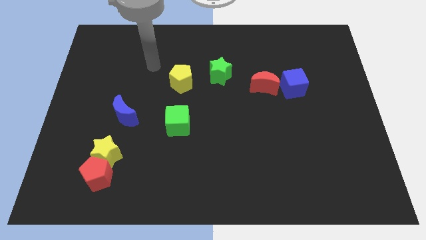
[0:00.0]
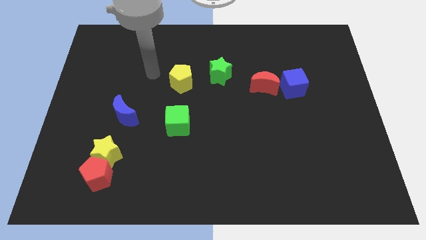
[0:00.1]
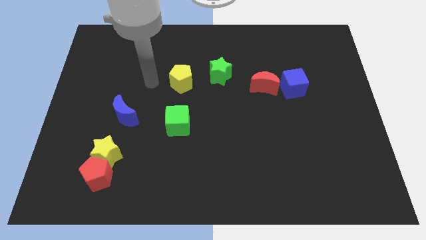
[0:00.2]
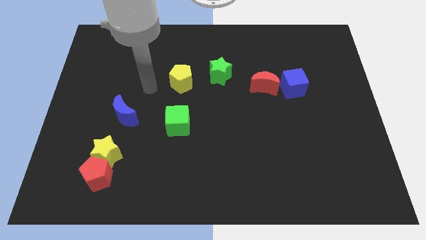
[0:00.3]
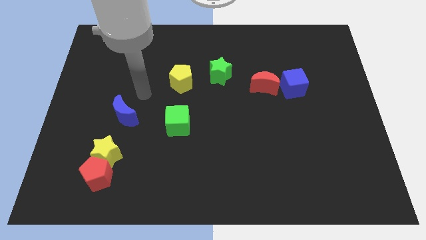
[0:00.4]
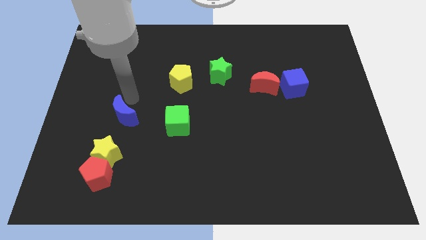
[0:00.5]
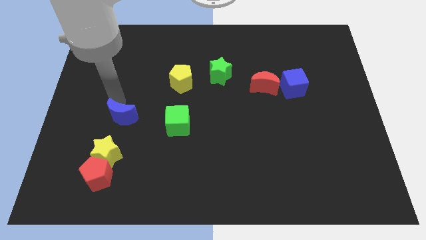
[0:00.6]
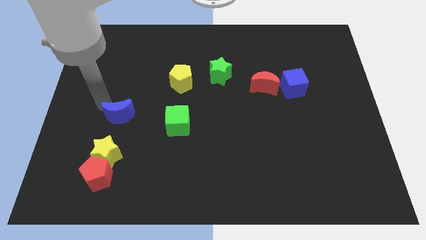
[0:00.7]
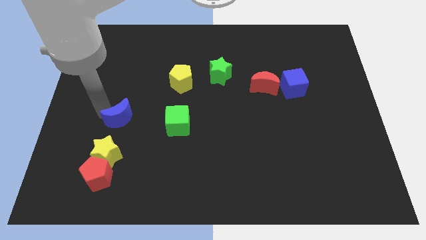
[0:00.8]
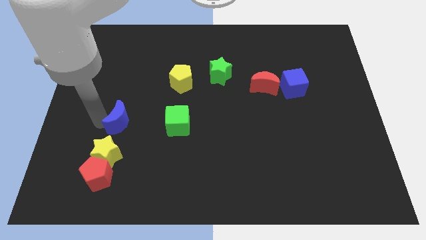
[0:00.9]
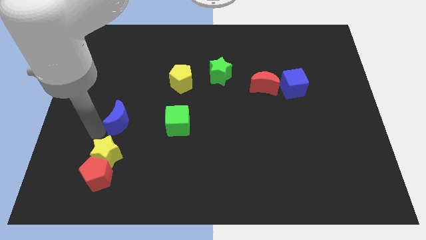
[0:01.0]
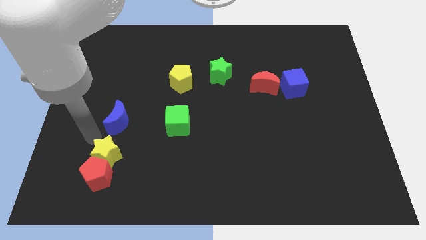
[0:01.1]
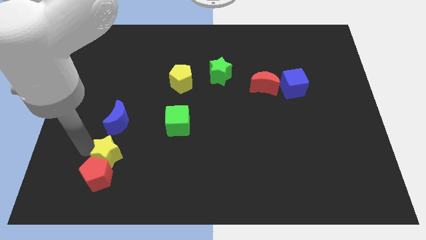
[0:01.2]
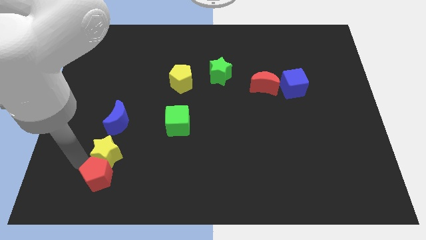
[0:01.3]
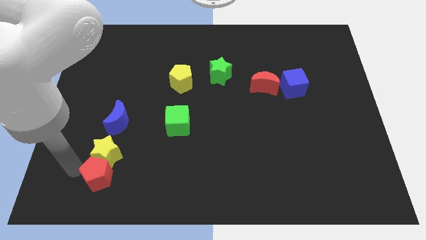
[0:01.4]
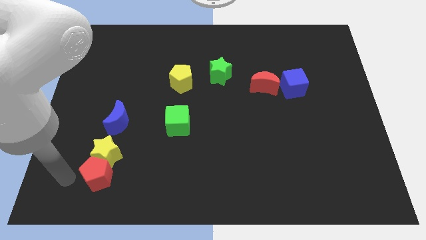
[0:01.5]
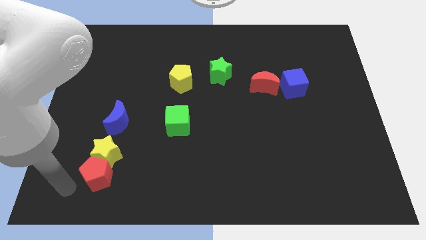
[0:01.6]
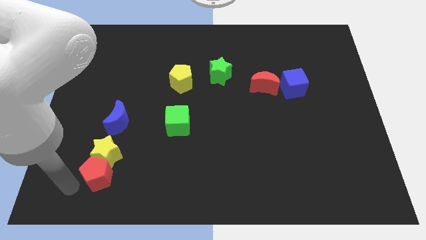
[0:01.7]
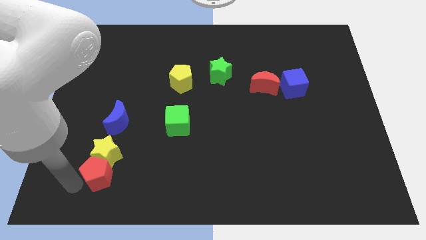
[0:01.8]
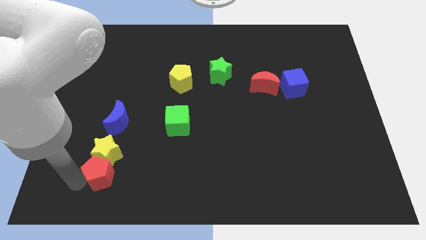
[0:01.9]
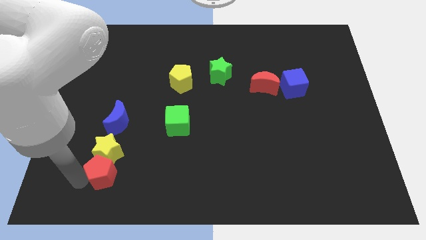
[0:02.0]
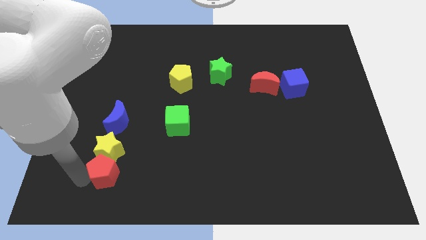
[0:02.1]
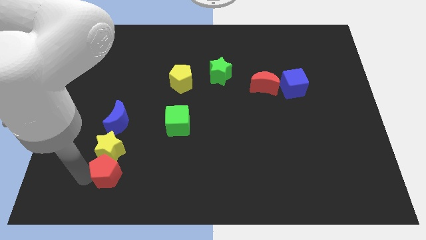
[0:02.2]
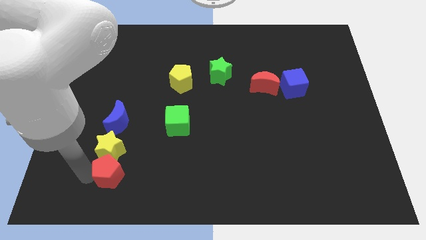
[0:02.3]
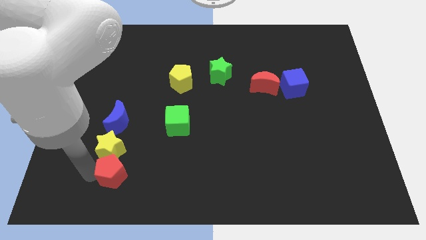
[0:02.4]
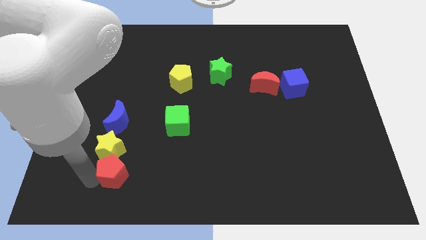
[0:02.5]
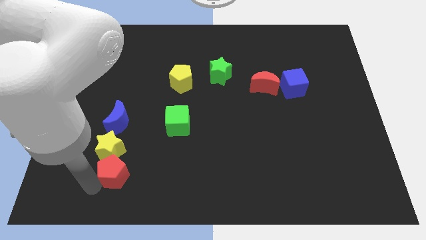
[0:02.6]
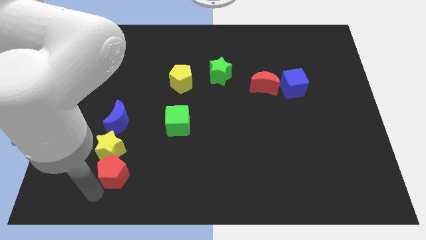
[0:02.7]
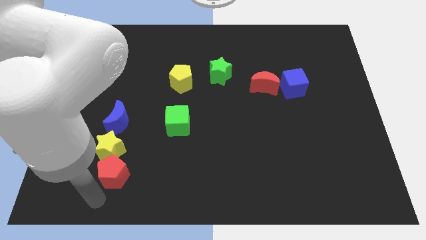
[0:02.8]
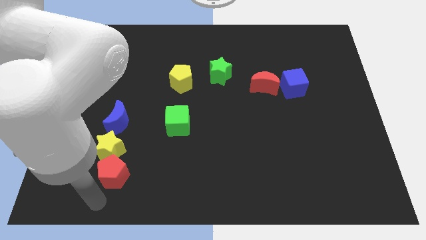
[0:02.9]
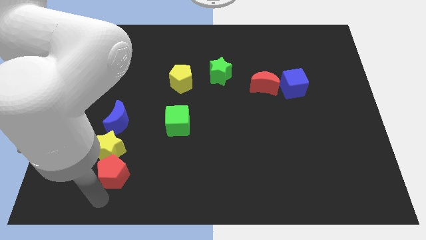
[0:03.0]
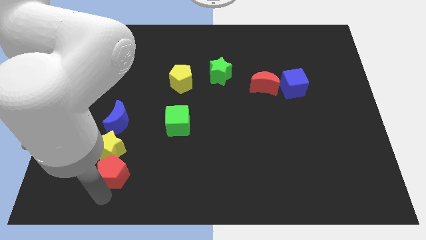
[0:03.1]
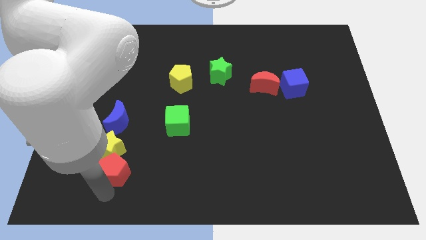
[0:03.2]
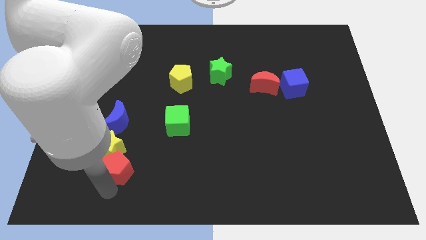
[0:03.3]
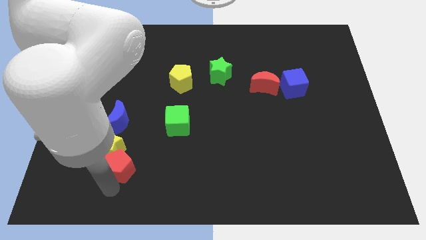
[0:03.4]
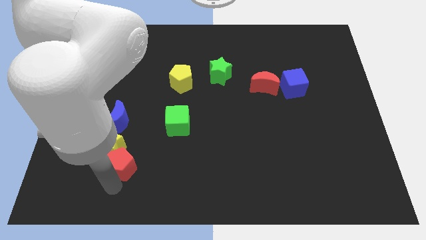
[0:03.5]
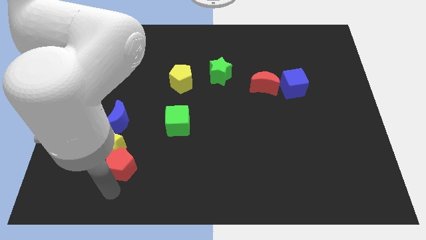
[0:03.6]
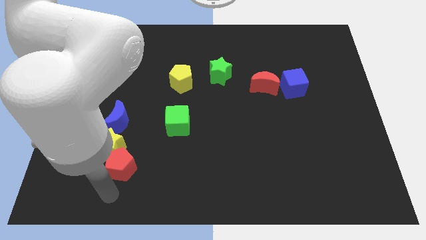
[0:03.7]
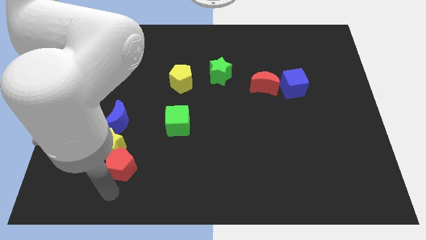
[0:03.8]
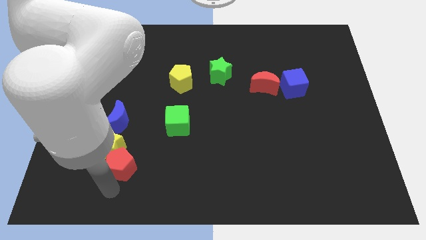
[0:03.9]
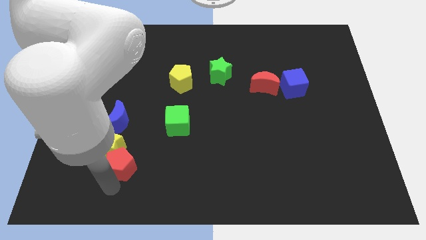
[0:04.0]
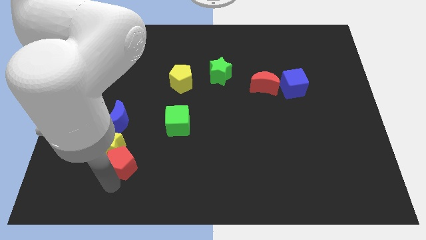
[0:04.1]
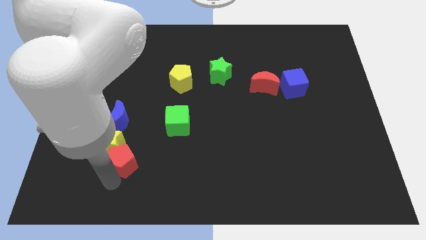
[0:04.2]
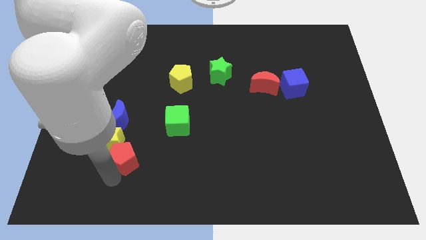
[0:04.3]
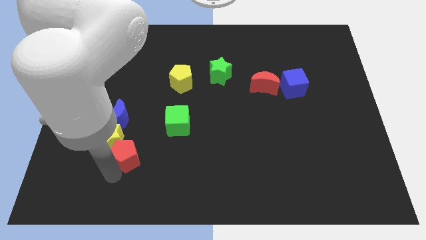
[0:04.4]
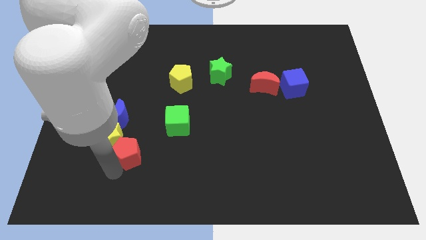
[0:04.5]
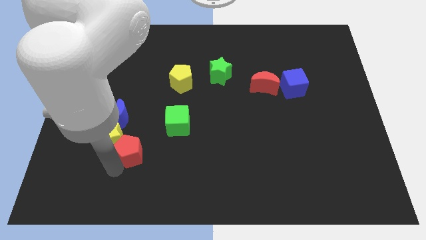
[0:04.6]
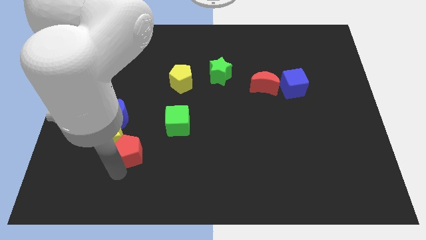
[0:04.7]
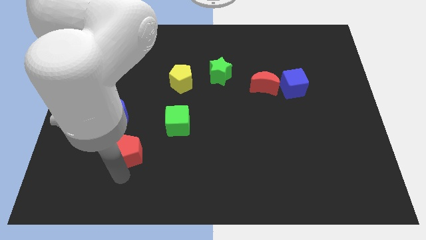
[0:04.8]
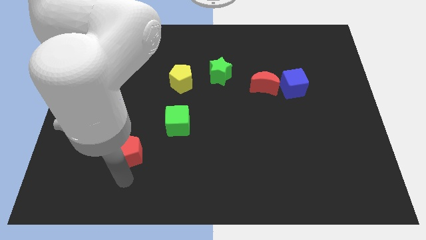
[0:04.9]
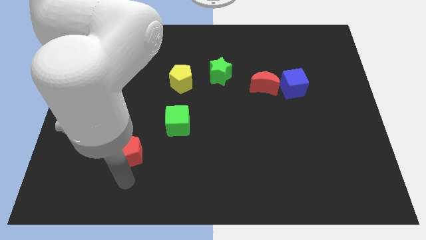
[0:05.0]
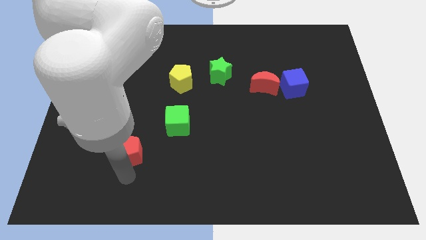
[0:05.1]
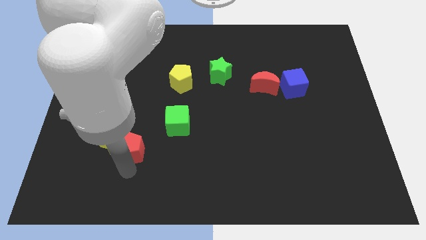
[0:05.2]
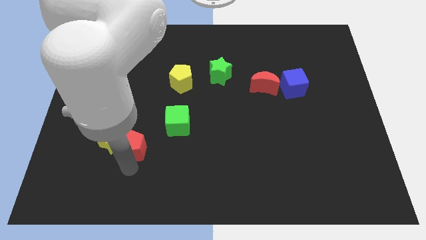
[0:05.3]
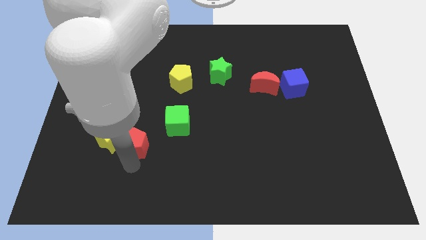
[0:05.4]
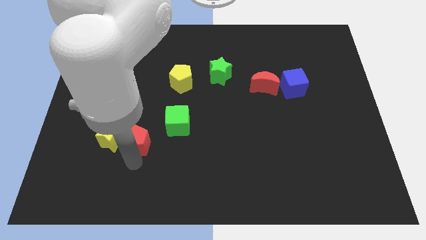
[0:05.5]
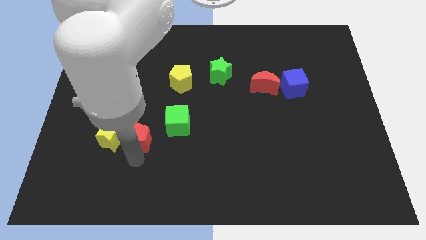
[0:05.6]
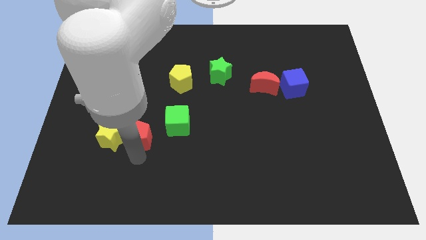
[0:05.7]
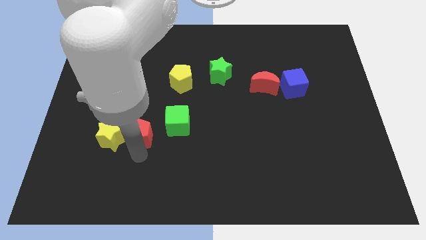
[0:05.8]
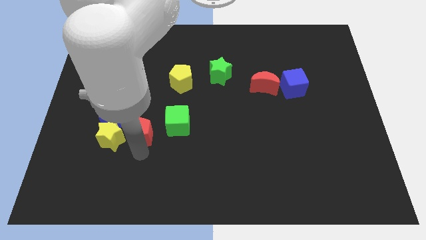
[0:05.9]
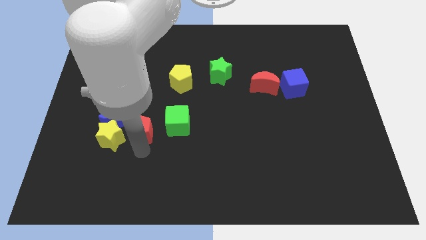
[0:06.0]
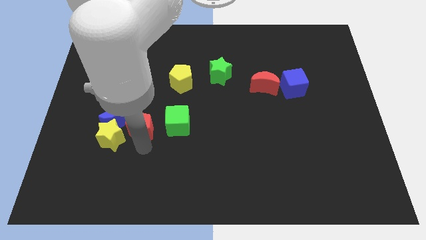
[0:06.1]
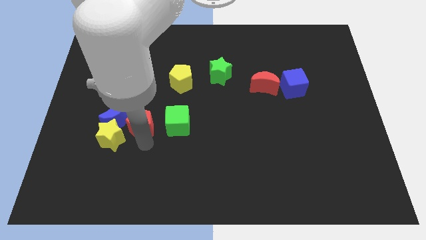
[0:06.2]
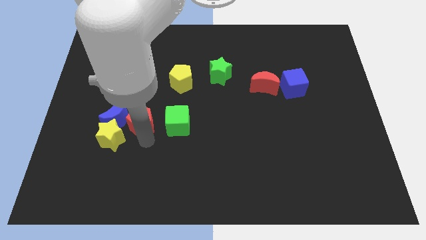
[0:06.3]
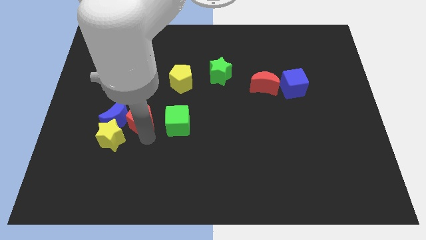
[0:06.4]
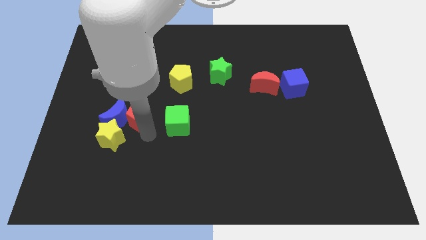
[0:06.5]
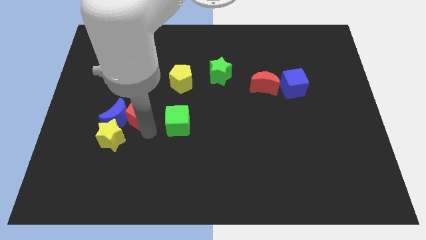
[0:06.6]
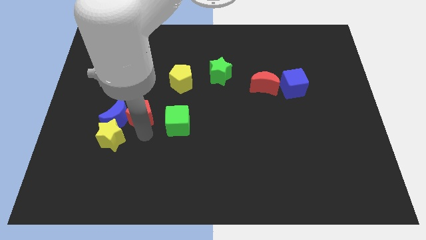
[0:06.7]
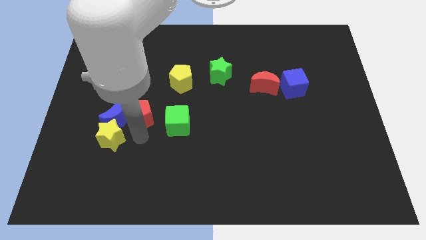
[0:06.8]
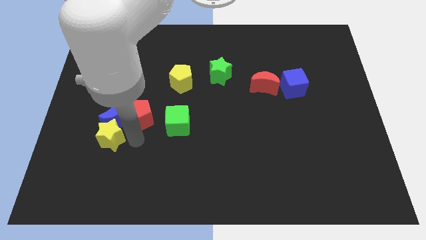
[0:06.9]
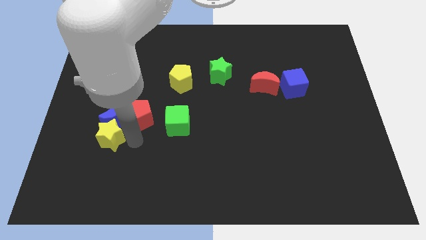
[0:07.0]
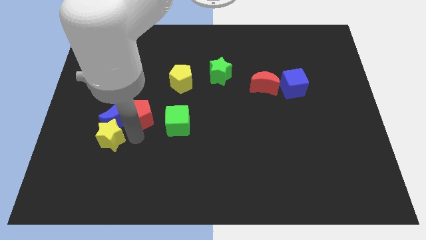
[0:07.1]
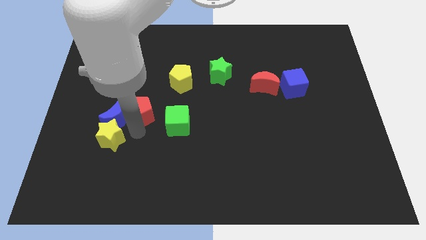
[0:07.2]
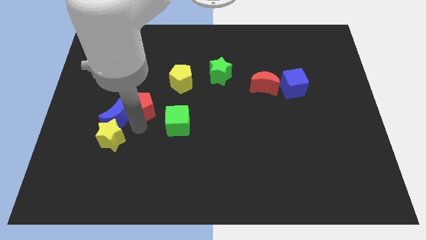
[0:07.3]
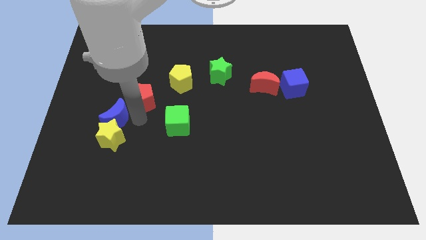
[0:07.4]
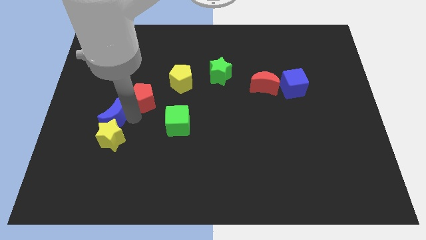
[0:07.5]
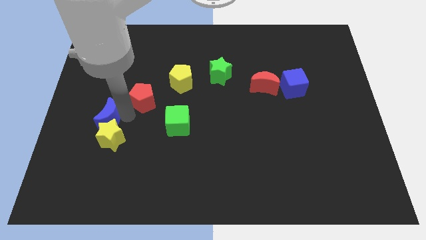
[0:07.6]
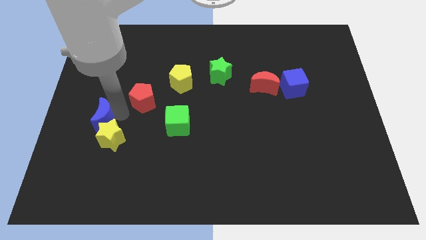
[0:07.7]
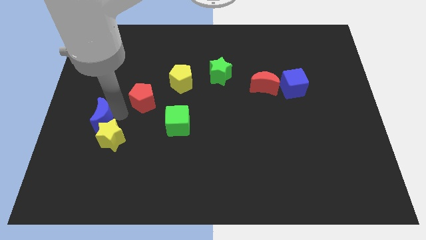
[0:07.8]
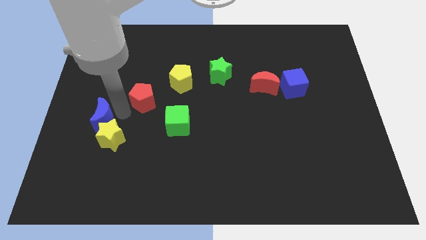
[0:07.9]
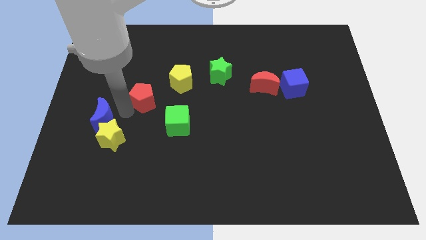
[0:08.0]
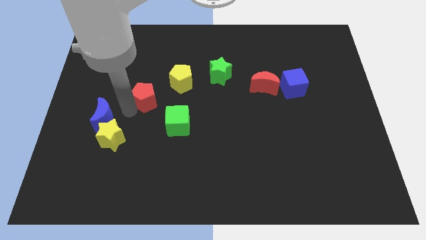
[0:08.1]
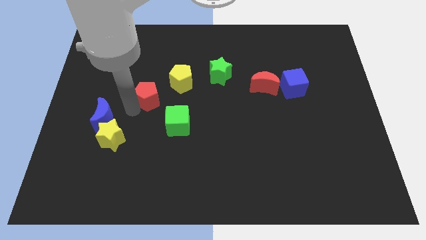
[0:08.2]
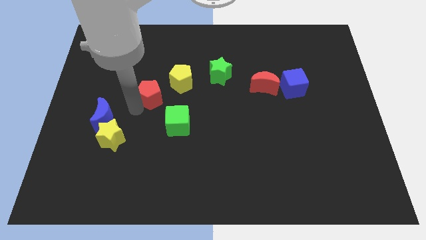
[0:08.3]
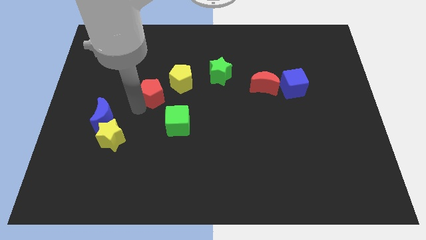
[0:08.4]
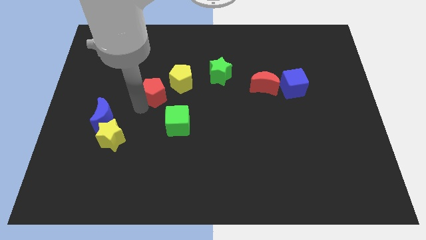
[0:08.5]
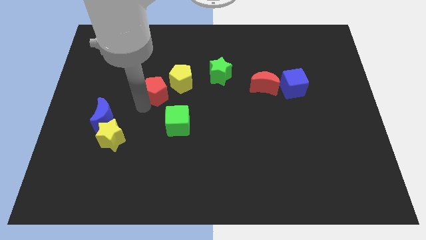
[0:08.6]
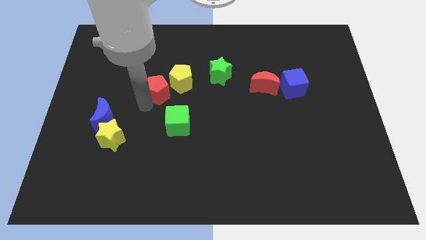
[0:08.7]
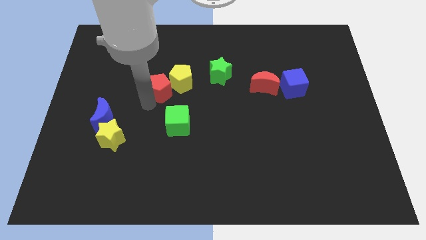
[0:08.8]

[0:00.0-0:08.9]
put the red pentagon close to the yellow pentagon
